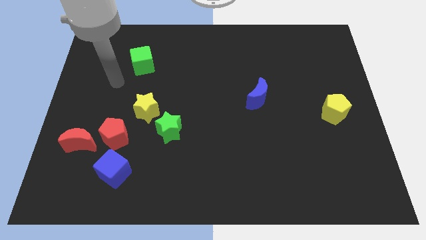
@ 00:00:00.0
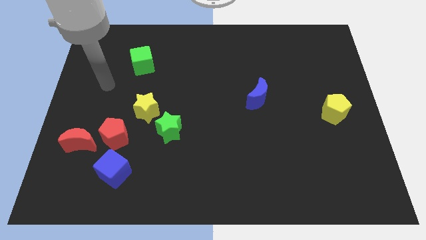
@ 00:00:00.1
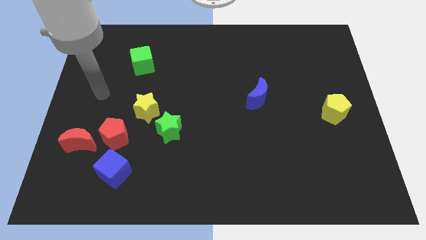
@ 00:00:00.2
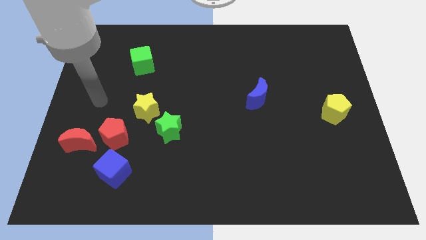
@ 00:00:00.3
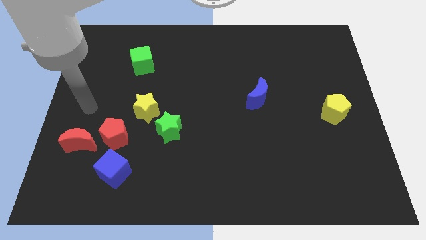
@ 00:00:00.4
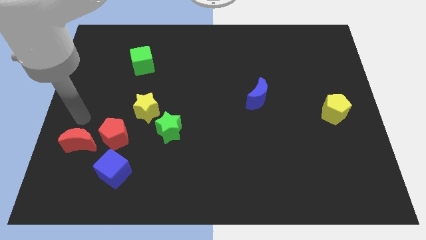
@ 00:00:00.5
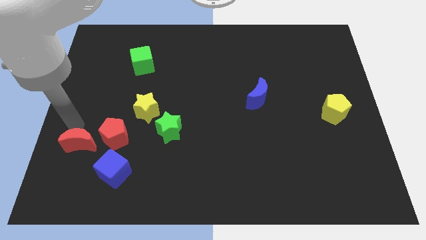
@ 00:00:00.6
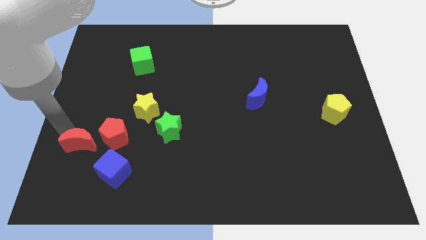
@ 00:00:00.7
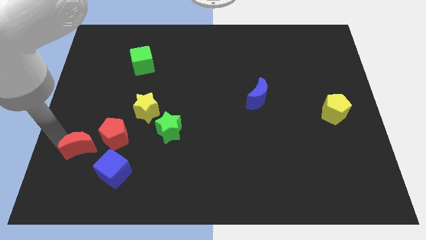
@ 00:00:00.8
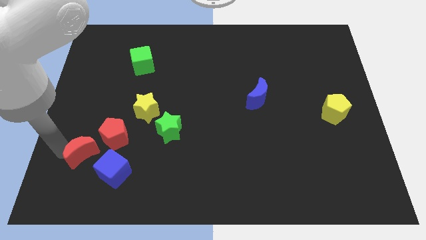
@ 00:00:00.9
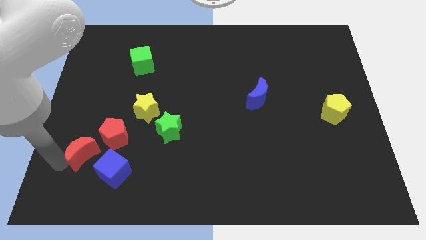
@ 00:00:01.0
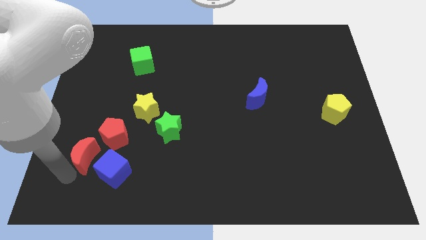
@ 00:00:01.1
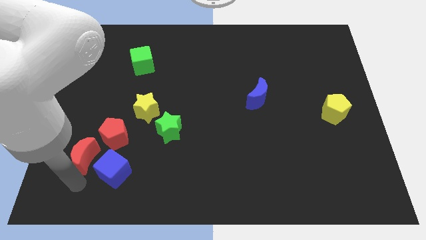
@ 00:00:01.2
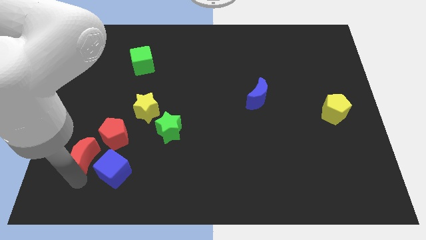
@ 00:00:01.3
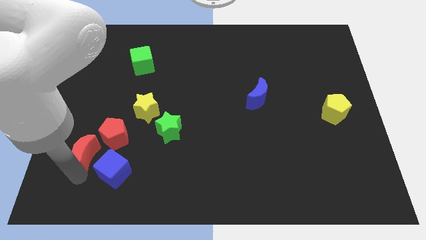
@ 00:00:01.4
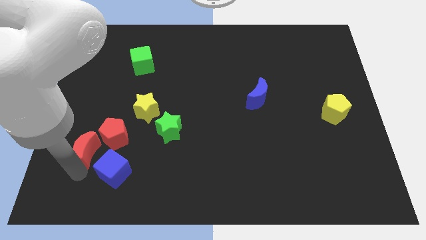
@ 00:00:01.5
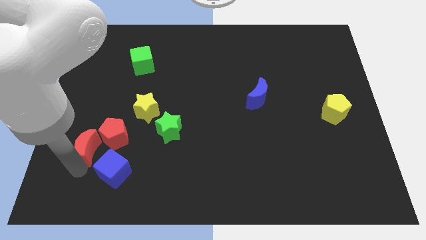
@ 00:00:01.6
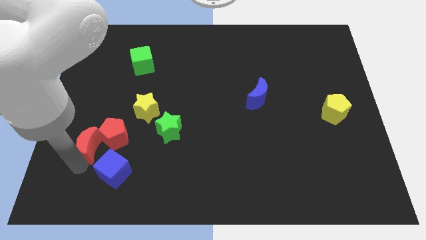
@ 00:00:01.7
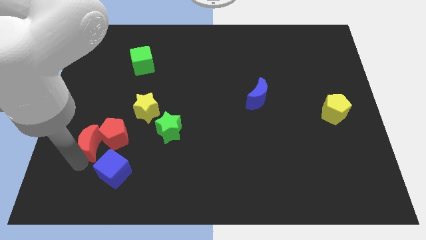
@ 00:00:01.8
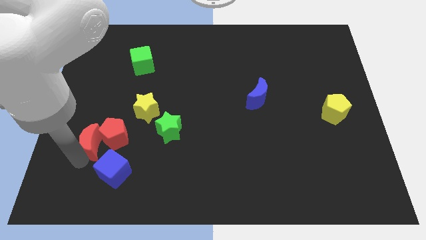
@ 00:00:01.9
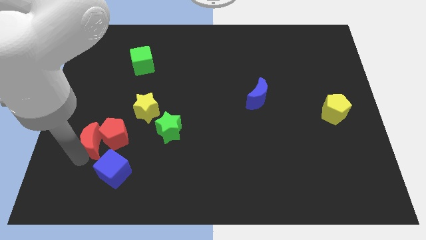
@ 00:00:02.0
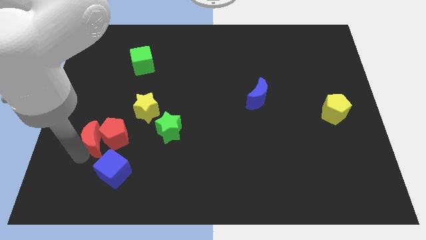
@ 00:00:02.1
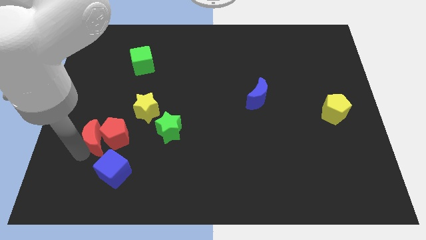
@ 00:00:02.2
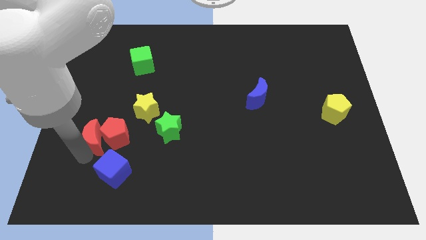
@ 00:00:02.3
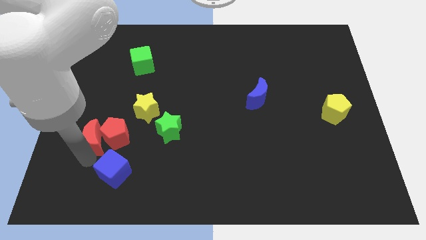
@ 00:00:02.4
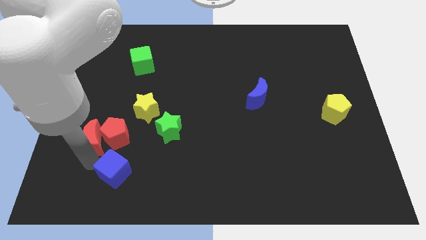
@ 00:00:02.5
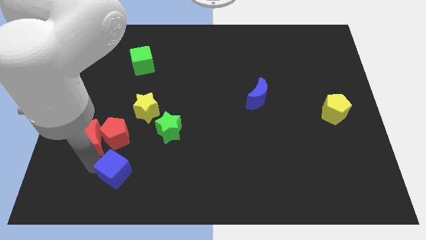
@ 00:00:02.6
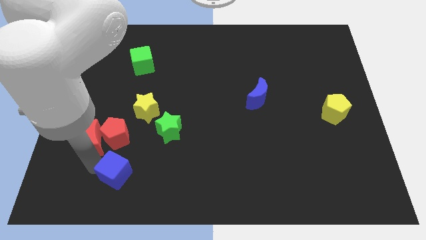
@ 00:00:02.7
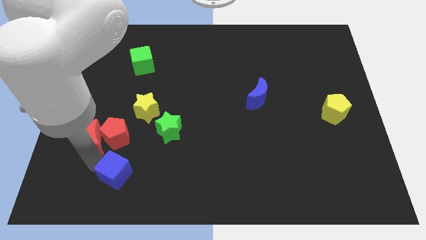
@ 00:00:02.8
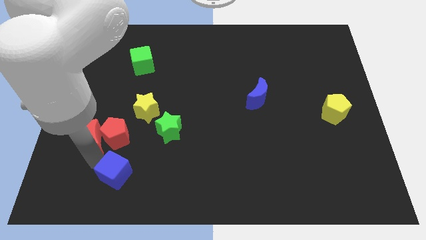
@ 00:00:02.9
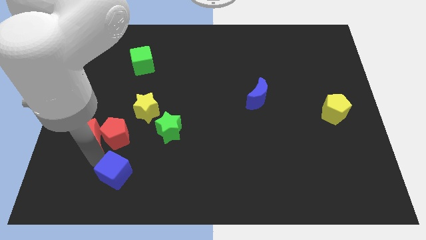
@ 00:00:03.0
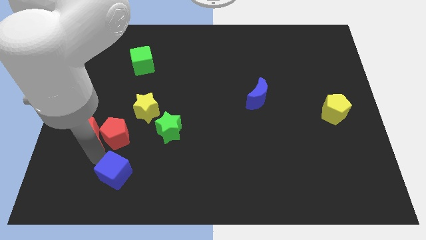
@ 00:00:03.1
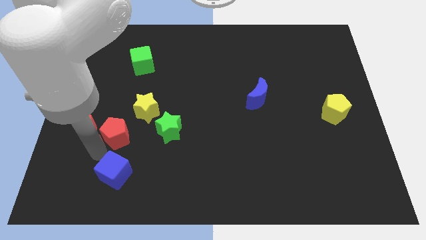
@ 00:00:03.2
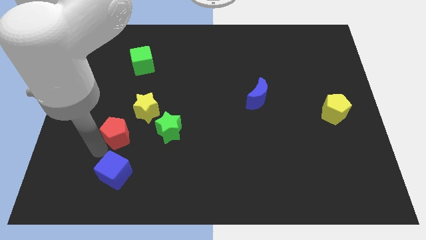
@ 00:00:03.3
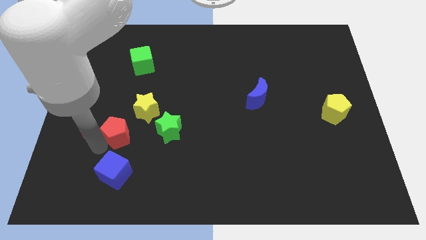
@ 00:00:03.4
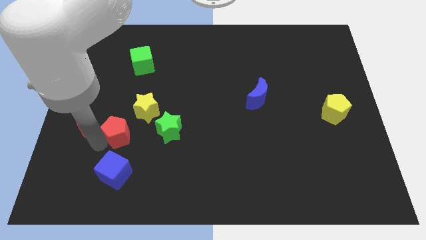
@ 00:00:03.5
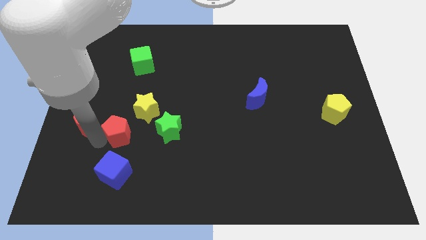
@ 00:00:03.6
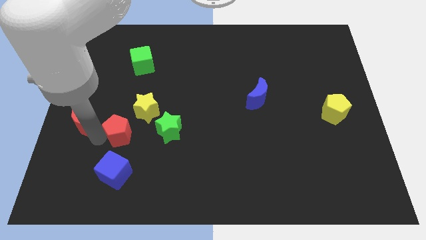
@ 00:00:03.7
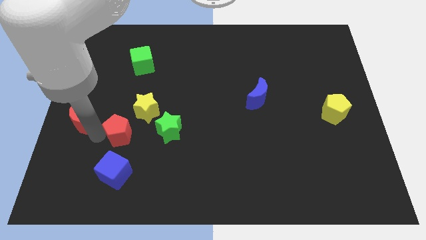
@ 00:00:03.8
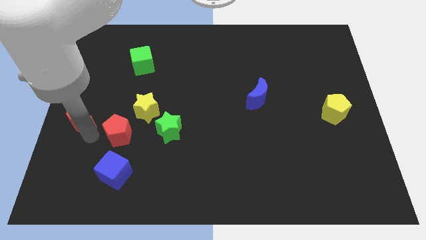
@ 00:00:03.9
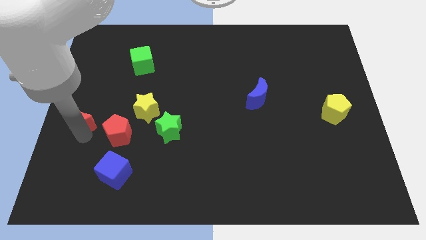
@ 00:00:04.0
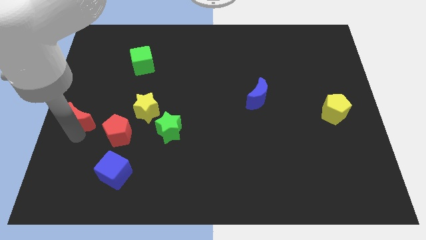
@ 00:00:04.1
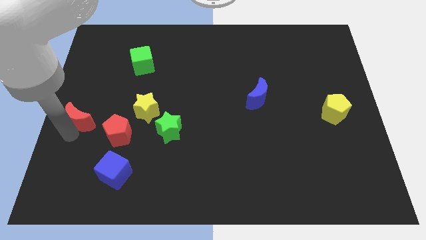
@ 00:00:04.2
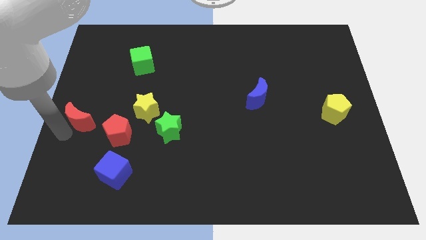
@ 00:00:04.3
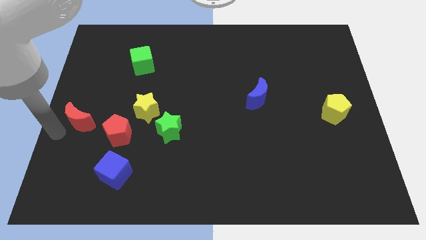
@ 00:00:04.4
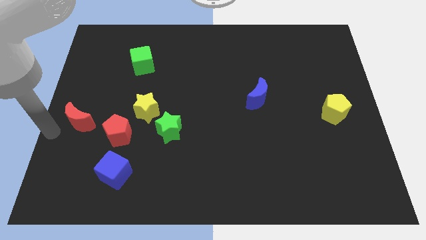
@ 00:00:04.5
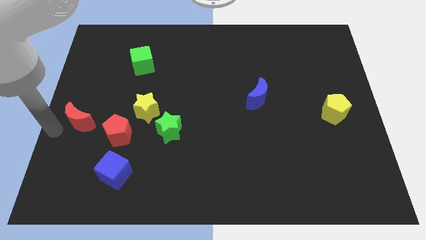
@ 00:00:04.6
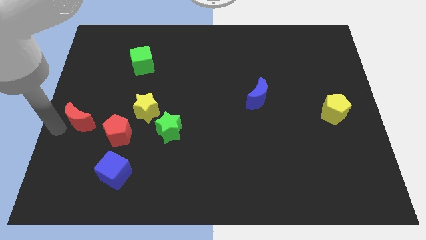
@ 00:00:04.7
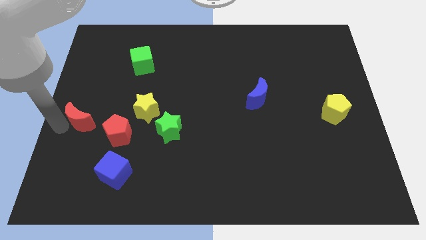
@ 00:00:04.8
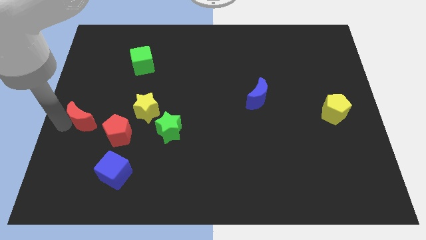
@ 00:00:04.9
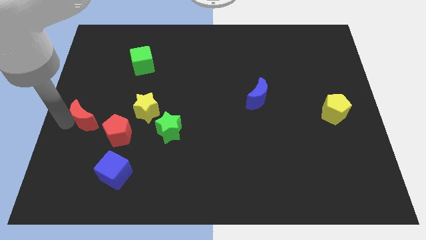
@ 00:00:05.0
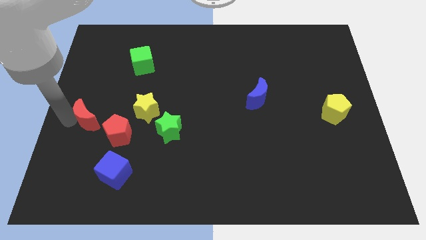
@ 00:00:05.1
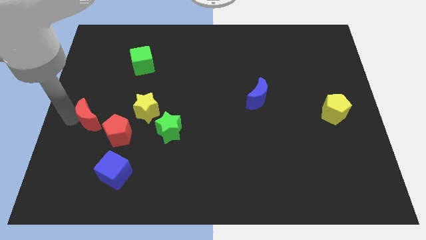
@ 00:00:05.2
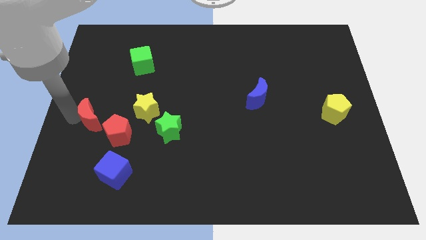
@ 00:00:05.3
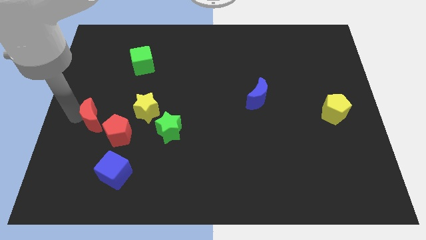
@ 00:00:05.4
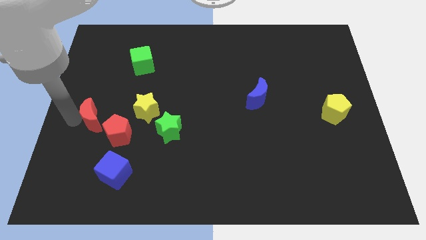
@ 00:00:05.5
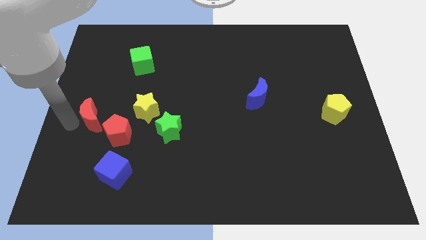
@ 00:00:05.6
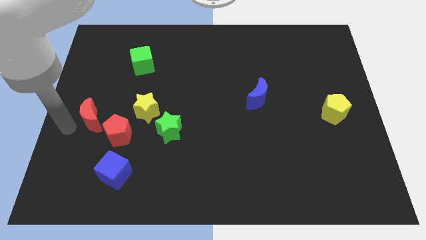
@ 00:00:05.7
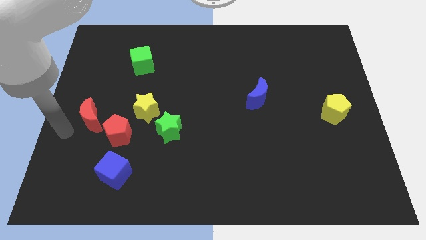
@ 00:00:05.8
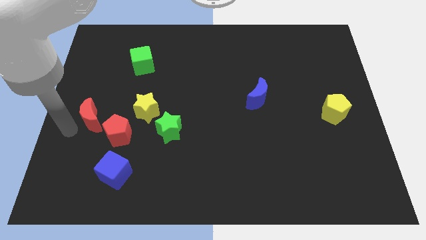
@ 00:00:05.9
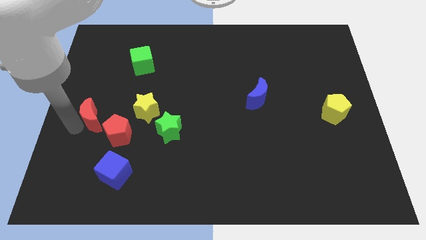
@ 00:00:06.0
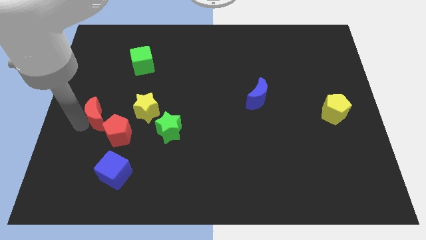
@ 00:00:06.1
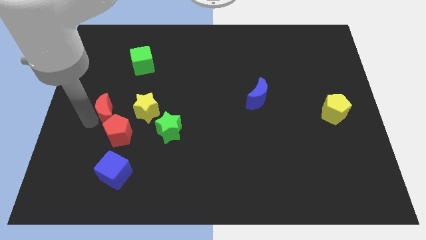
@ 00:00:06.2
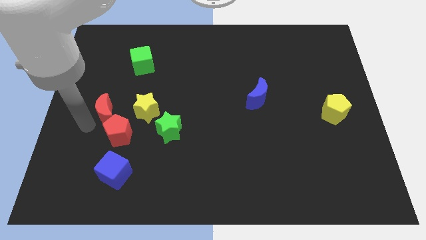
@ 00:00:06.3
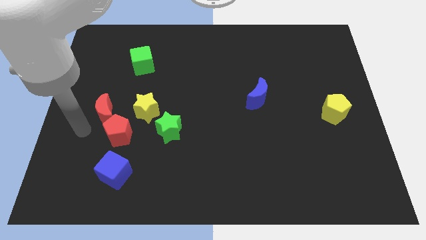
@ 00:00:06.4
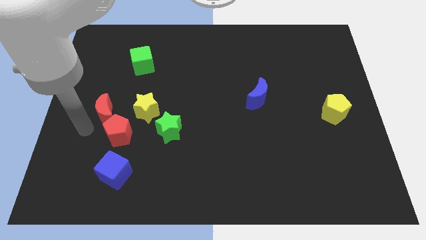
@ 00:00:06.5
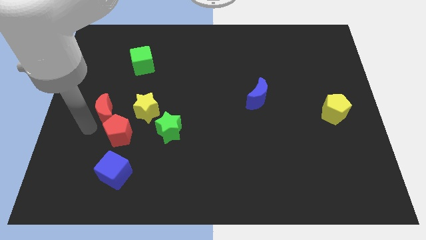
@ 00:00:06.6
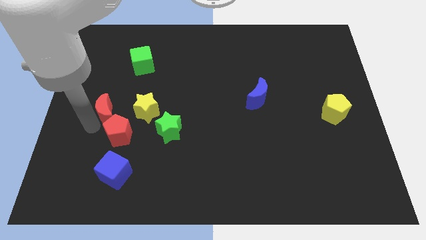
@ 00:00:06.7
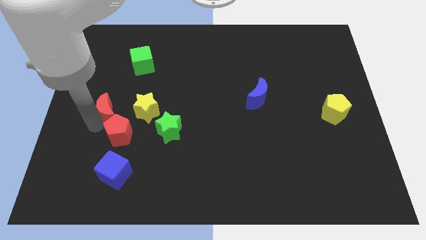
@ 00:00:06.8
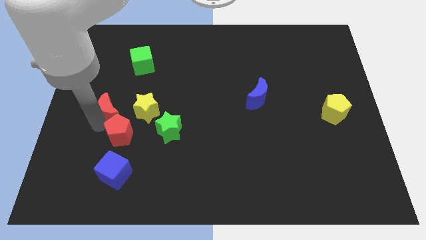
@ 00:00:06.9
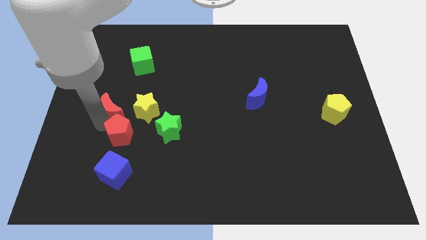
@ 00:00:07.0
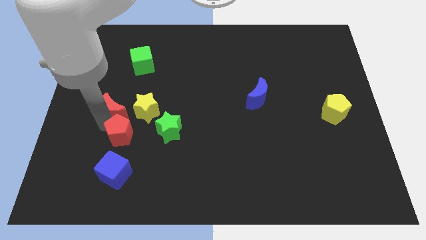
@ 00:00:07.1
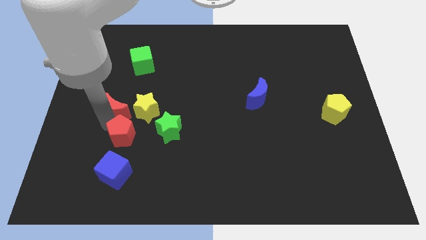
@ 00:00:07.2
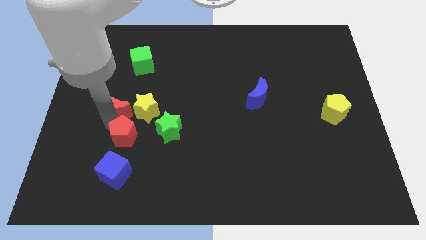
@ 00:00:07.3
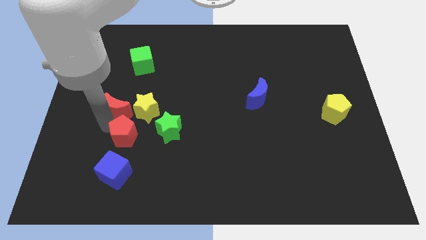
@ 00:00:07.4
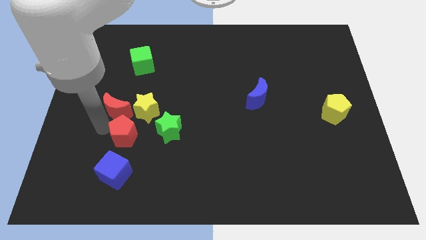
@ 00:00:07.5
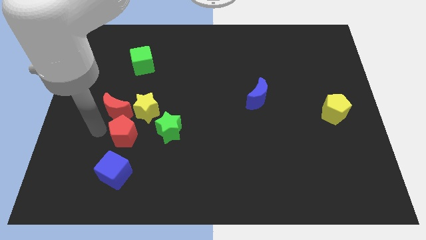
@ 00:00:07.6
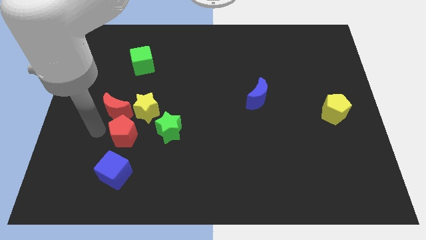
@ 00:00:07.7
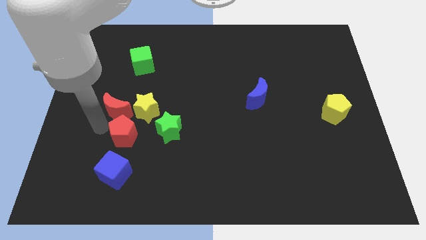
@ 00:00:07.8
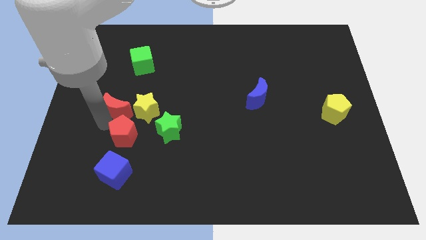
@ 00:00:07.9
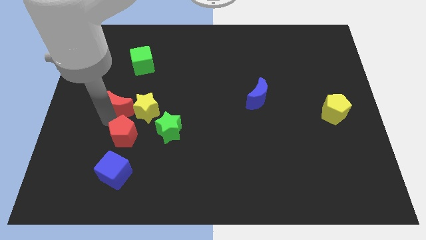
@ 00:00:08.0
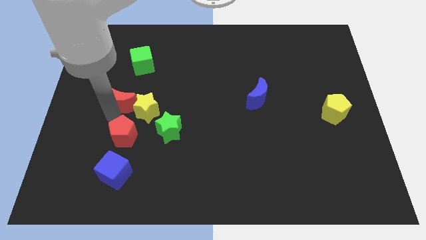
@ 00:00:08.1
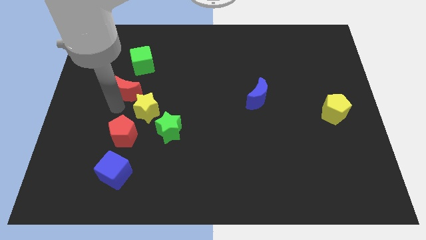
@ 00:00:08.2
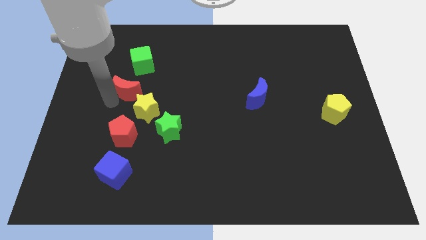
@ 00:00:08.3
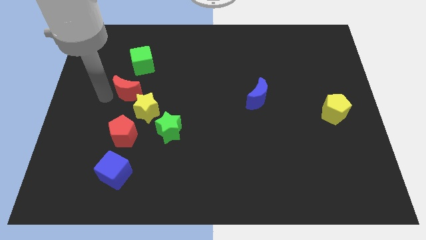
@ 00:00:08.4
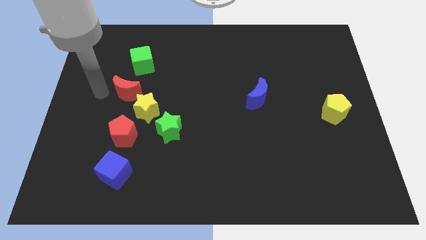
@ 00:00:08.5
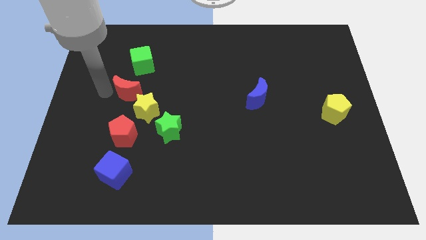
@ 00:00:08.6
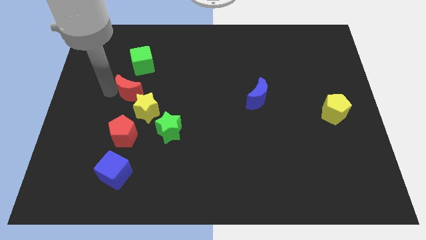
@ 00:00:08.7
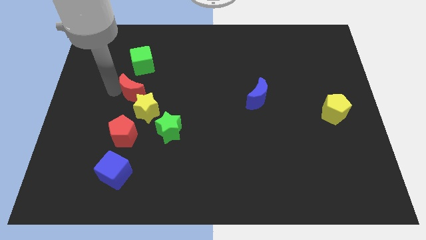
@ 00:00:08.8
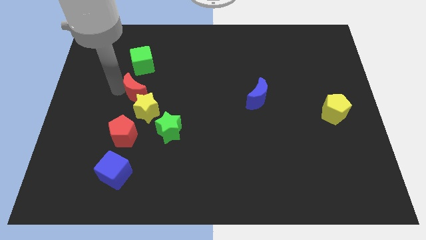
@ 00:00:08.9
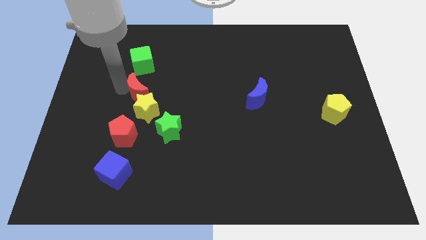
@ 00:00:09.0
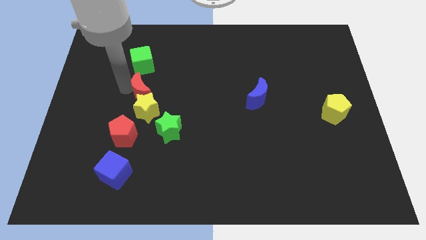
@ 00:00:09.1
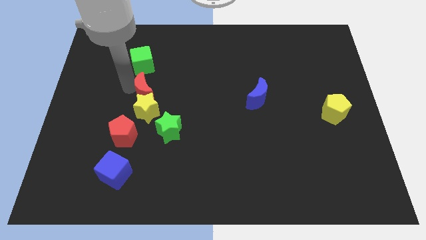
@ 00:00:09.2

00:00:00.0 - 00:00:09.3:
slide the red moon to the top right side of the yellow star
